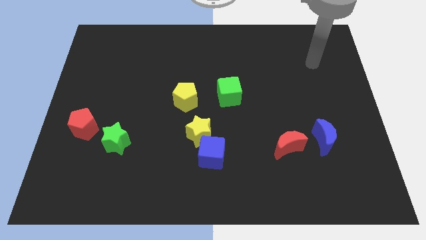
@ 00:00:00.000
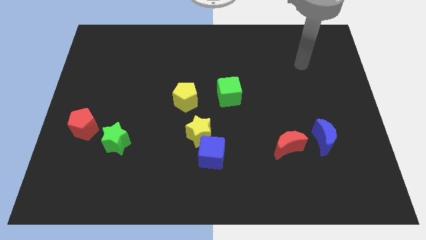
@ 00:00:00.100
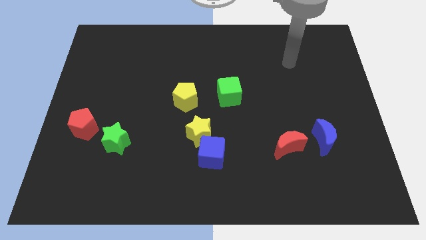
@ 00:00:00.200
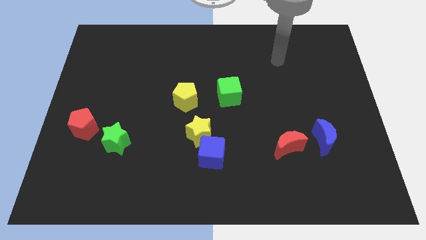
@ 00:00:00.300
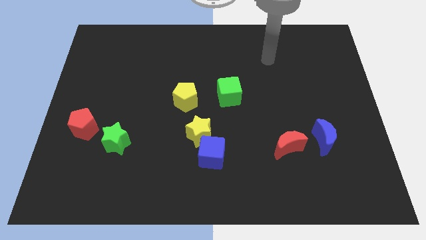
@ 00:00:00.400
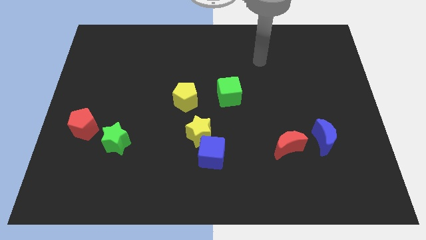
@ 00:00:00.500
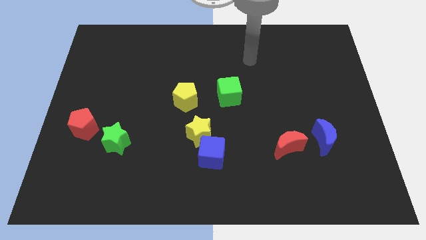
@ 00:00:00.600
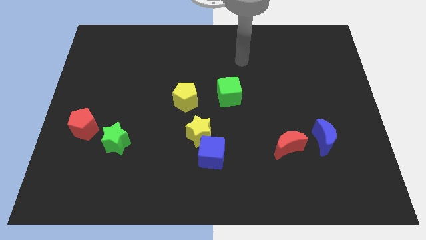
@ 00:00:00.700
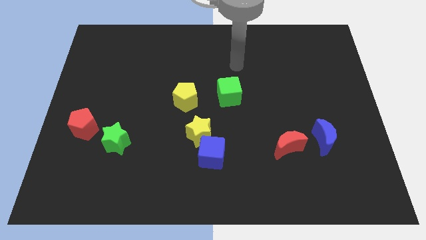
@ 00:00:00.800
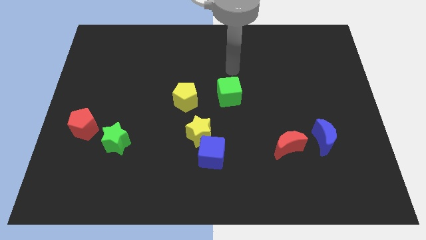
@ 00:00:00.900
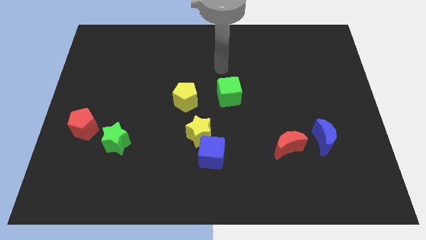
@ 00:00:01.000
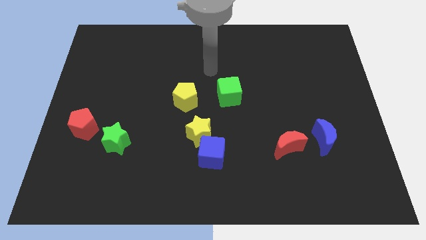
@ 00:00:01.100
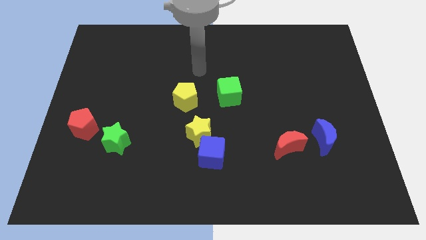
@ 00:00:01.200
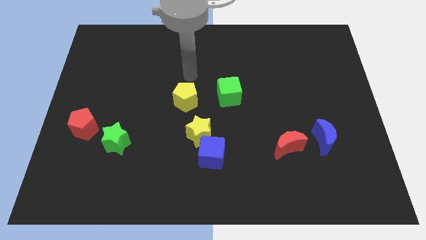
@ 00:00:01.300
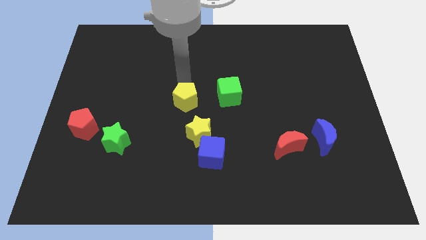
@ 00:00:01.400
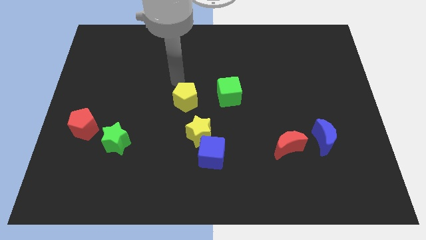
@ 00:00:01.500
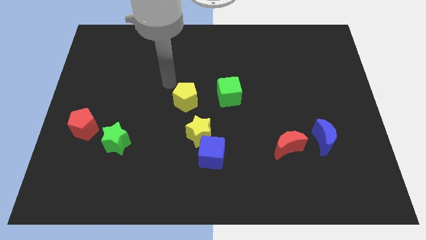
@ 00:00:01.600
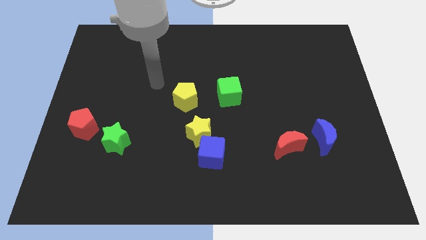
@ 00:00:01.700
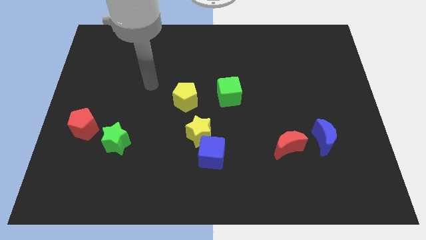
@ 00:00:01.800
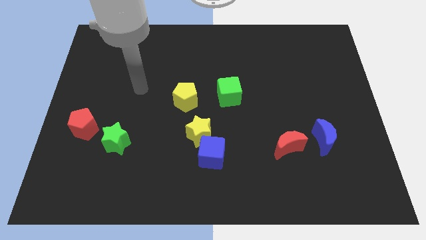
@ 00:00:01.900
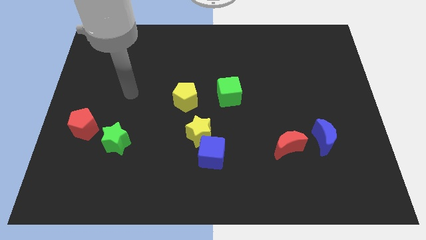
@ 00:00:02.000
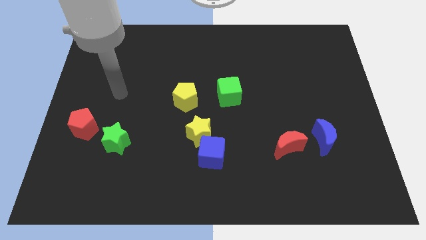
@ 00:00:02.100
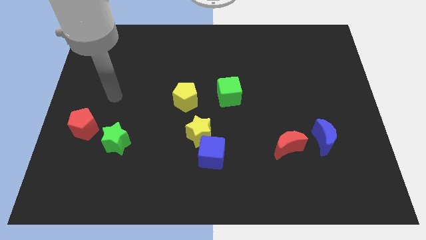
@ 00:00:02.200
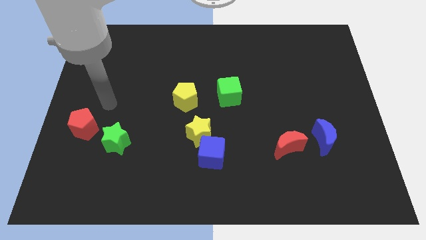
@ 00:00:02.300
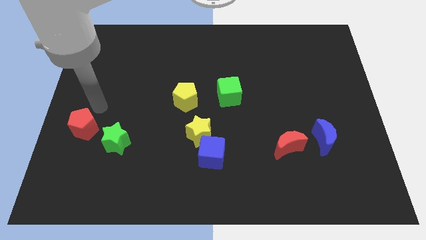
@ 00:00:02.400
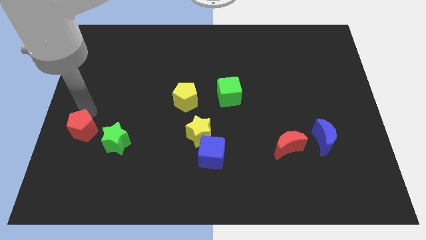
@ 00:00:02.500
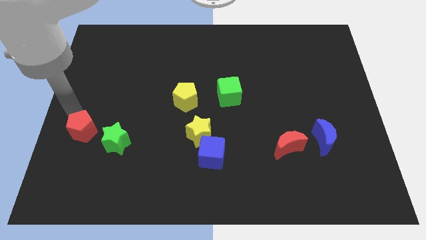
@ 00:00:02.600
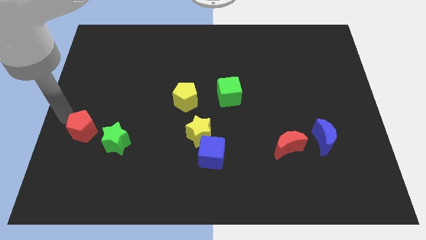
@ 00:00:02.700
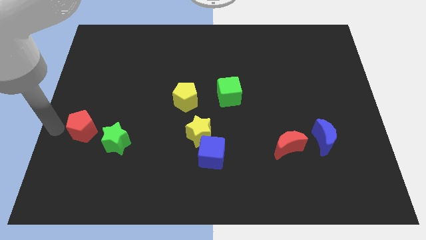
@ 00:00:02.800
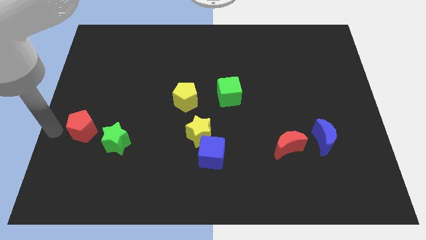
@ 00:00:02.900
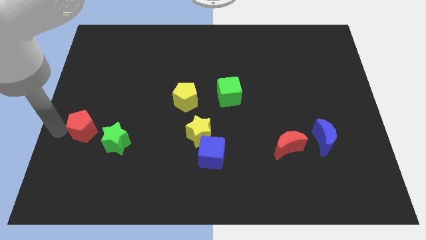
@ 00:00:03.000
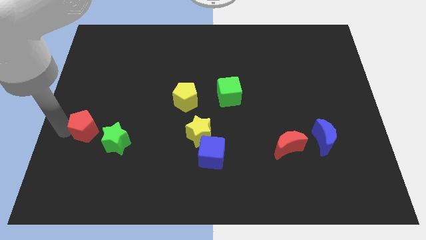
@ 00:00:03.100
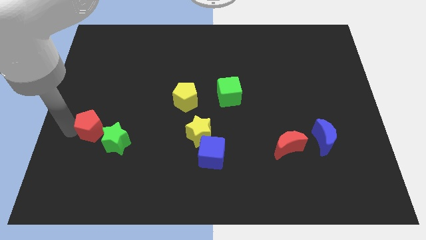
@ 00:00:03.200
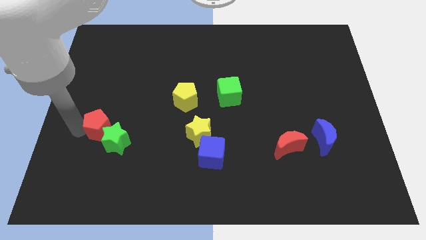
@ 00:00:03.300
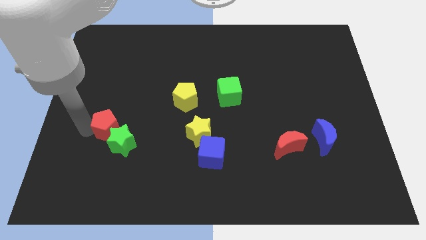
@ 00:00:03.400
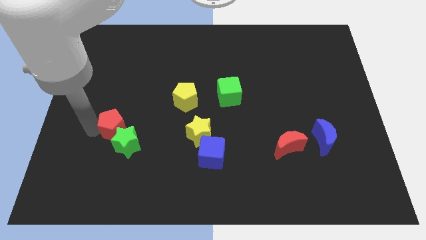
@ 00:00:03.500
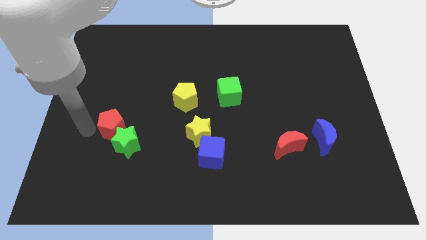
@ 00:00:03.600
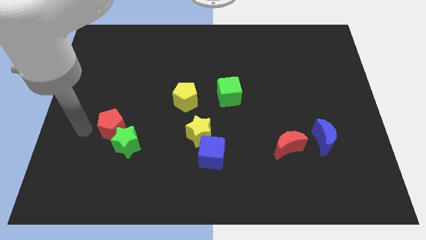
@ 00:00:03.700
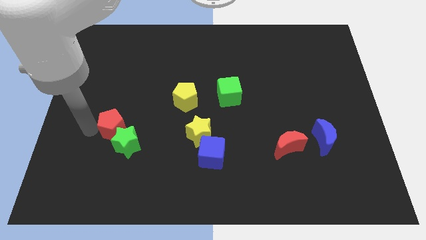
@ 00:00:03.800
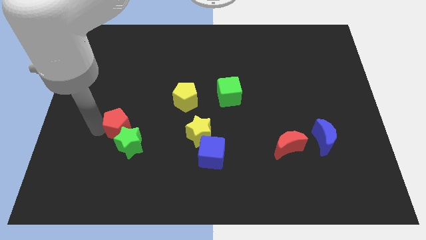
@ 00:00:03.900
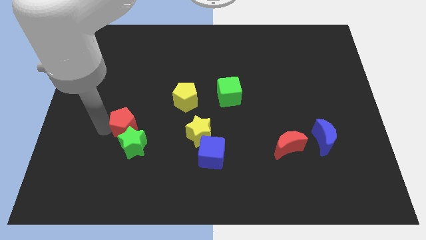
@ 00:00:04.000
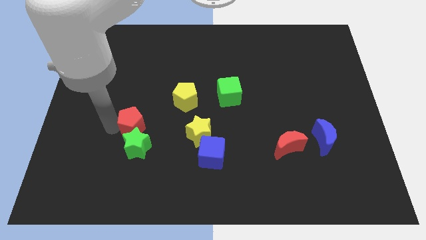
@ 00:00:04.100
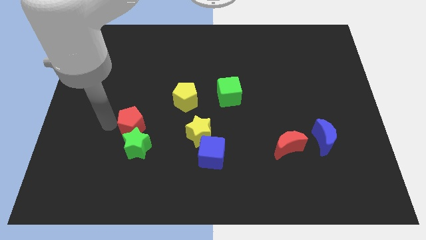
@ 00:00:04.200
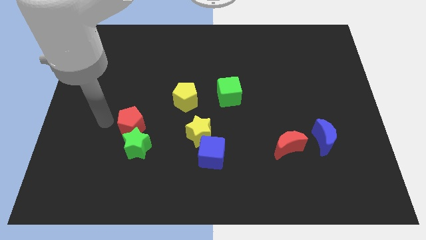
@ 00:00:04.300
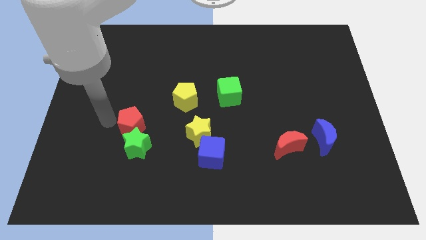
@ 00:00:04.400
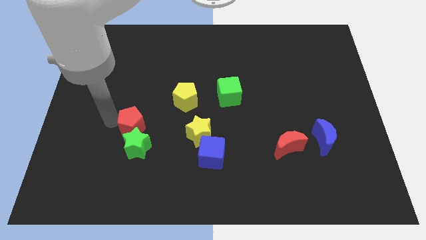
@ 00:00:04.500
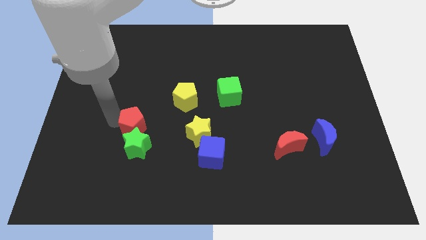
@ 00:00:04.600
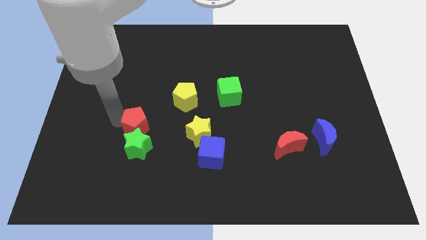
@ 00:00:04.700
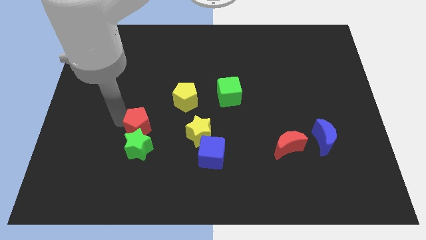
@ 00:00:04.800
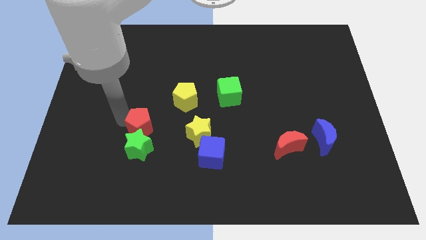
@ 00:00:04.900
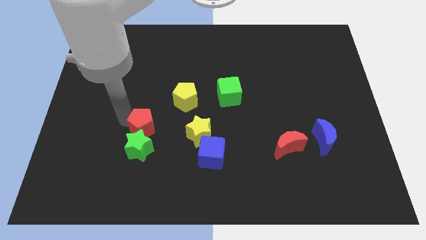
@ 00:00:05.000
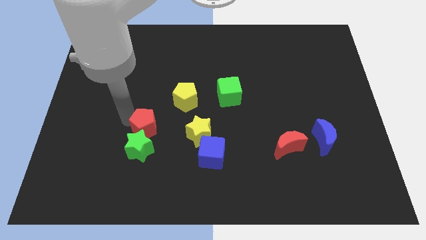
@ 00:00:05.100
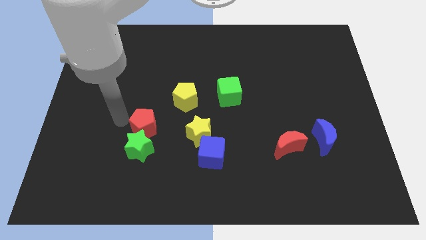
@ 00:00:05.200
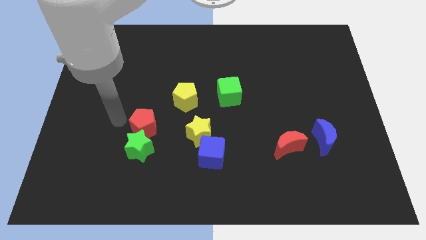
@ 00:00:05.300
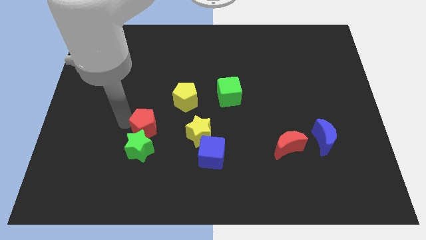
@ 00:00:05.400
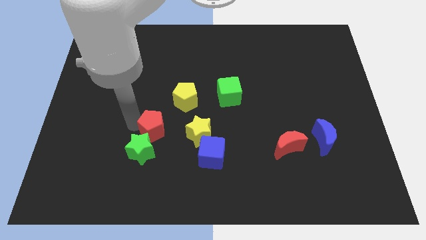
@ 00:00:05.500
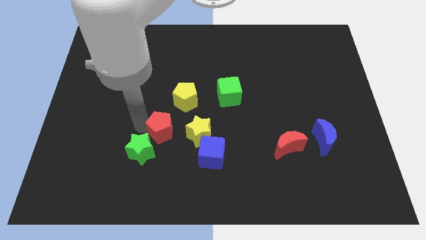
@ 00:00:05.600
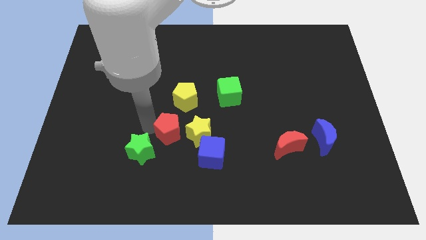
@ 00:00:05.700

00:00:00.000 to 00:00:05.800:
slide the red pentagon to the bottom side of the yellow pentagon

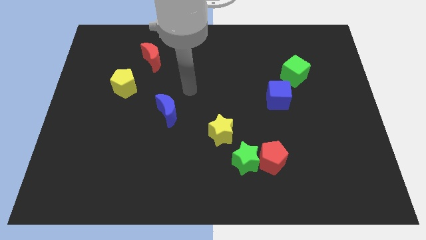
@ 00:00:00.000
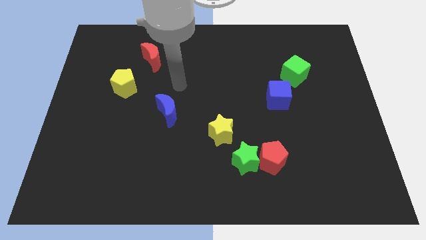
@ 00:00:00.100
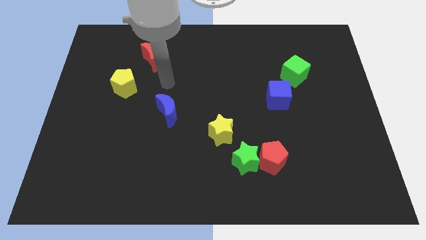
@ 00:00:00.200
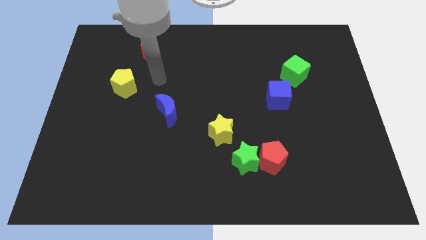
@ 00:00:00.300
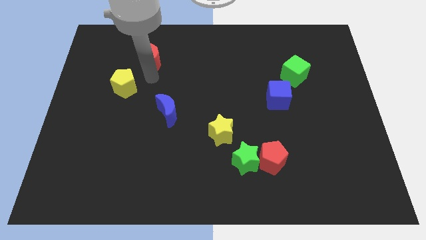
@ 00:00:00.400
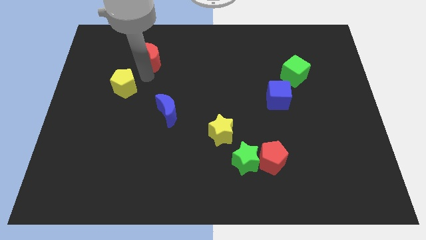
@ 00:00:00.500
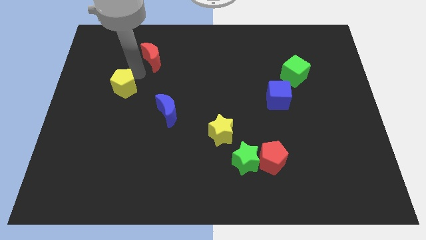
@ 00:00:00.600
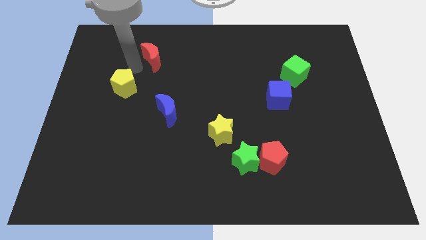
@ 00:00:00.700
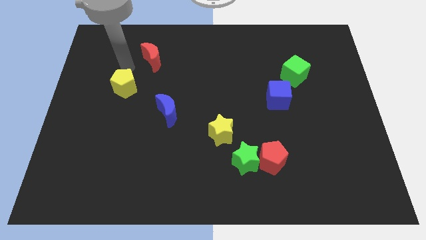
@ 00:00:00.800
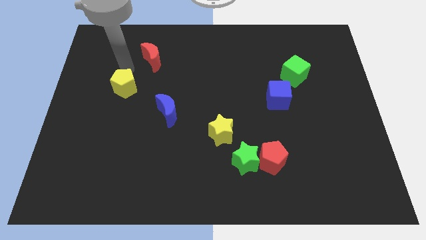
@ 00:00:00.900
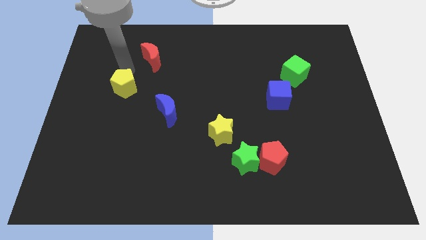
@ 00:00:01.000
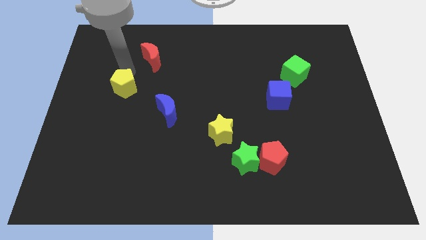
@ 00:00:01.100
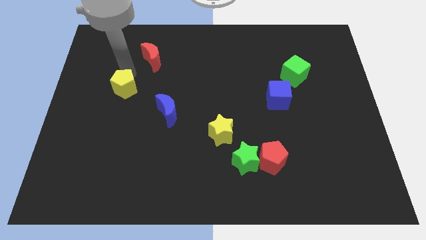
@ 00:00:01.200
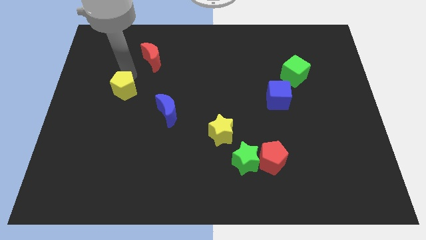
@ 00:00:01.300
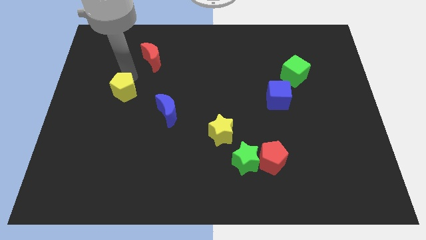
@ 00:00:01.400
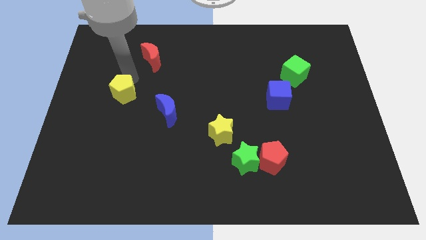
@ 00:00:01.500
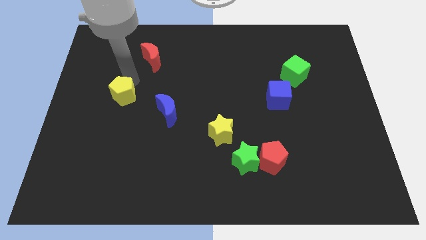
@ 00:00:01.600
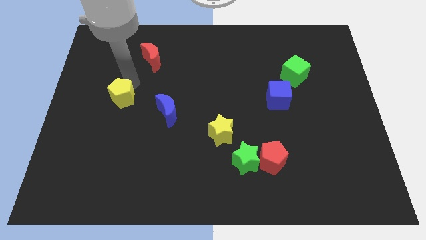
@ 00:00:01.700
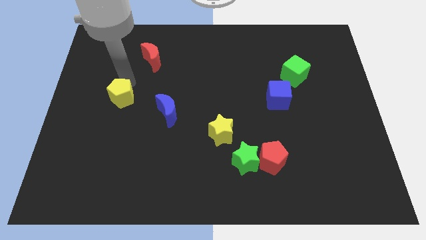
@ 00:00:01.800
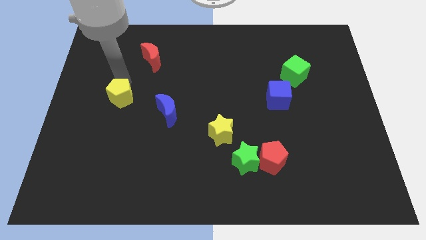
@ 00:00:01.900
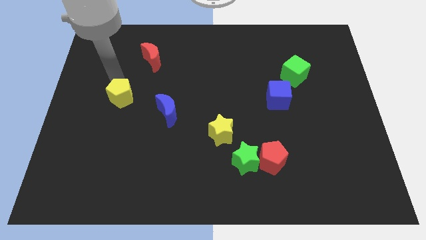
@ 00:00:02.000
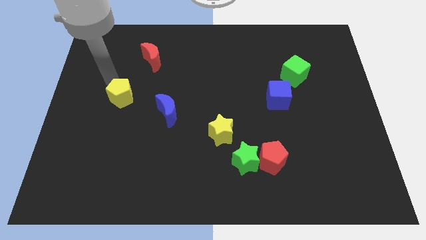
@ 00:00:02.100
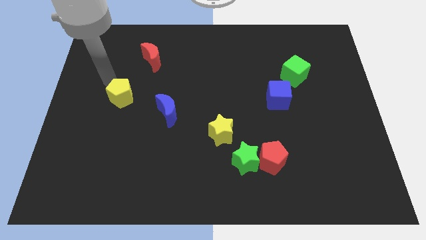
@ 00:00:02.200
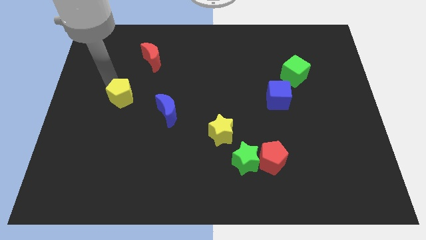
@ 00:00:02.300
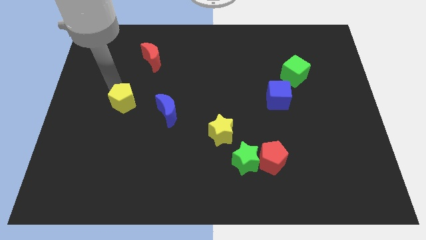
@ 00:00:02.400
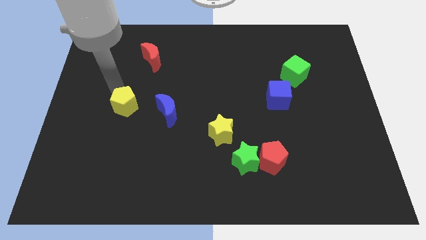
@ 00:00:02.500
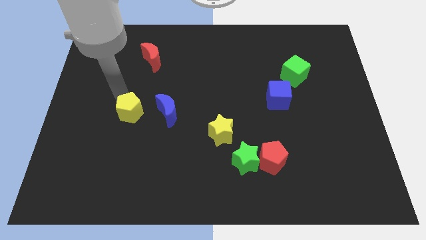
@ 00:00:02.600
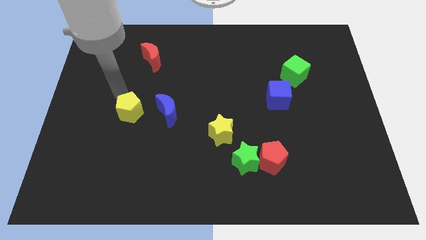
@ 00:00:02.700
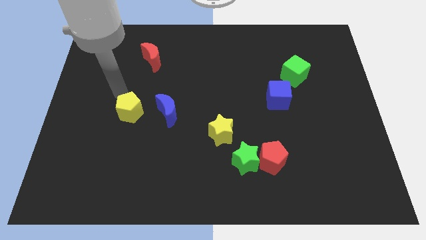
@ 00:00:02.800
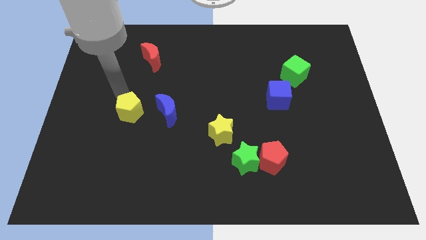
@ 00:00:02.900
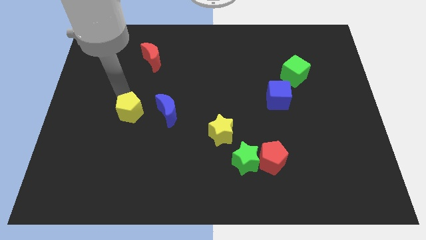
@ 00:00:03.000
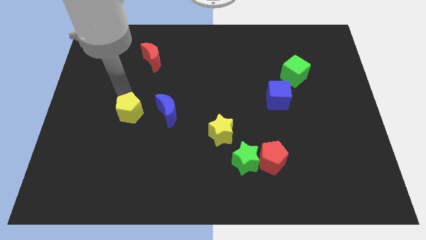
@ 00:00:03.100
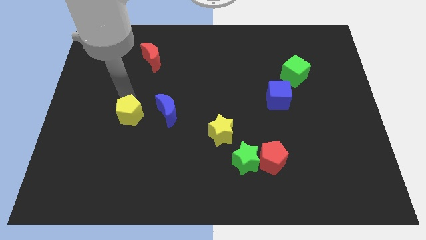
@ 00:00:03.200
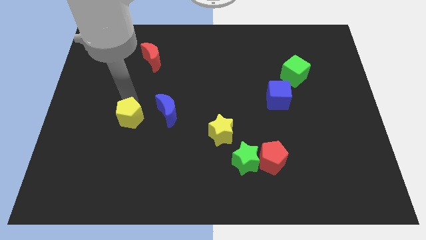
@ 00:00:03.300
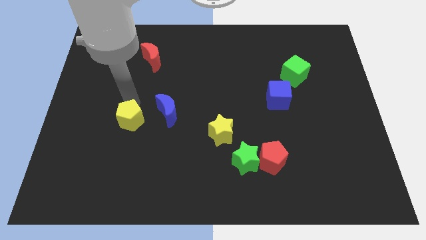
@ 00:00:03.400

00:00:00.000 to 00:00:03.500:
push the yellow pentagon to the bottom left of the blue moon
